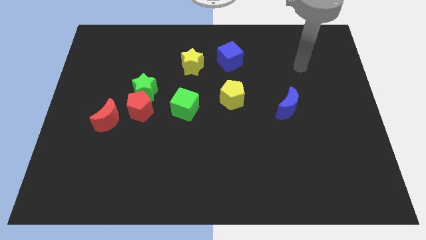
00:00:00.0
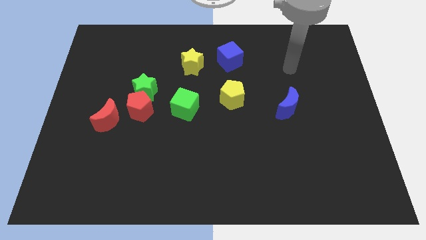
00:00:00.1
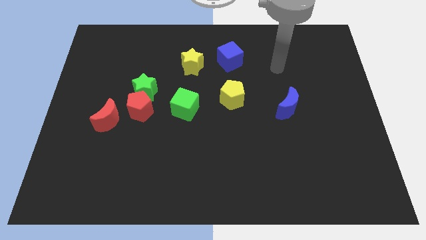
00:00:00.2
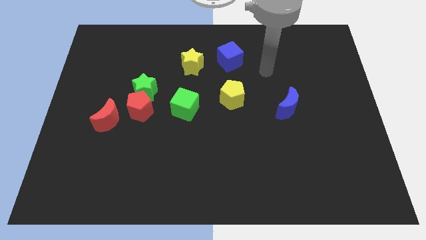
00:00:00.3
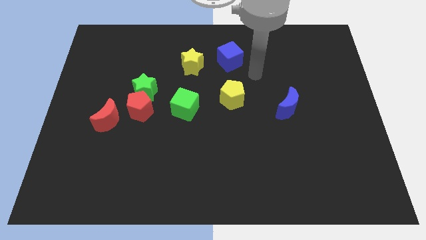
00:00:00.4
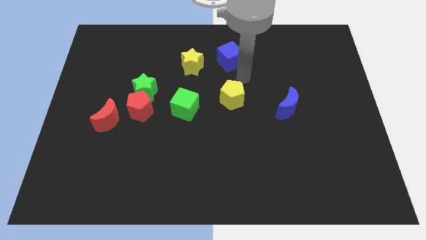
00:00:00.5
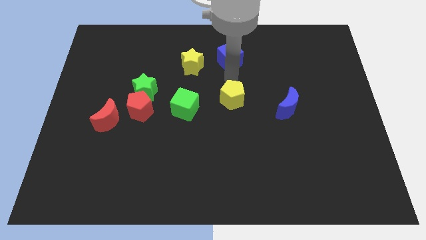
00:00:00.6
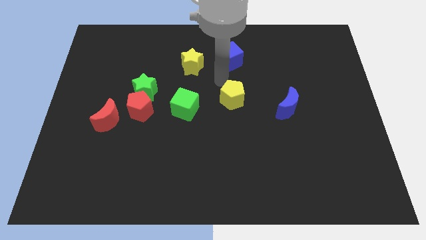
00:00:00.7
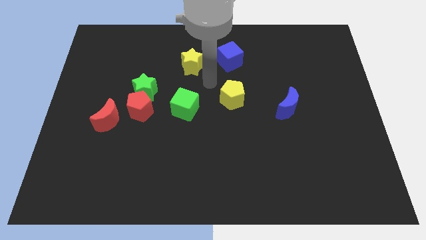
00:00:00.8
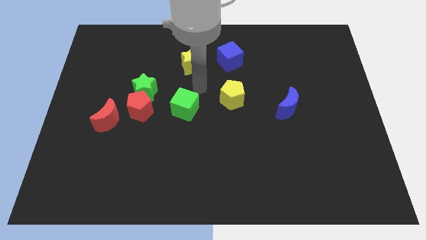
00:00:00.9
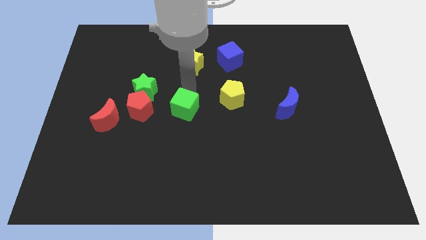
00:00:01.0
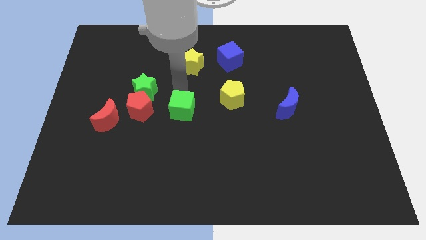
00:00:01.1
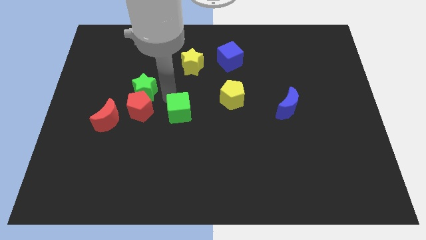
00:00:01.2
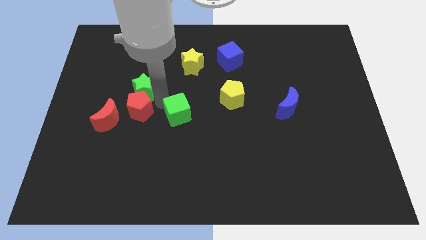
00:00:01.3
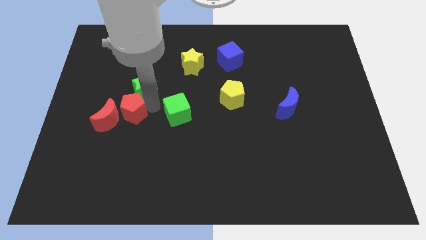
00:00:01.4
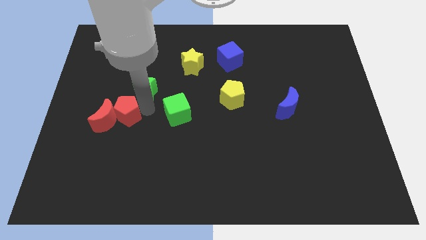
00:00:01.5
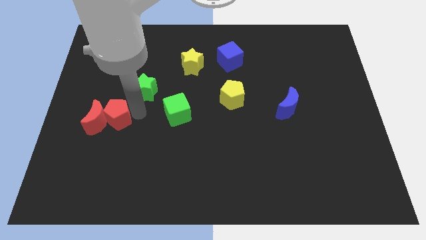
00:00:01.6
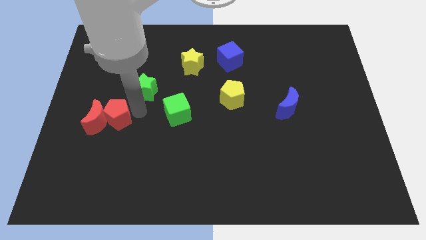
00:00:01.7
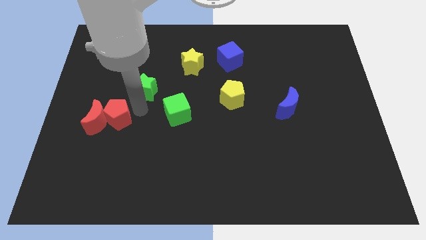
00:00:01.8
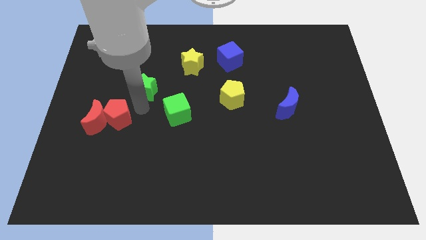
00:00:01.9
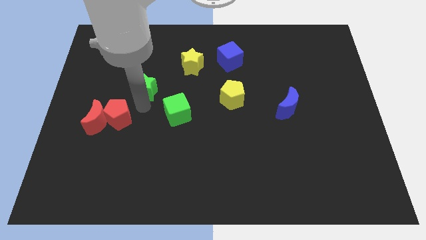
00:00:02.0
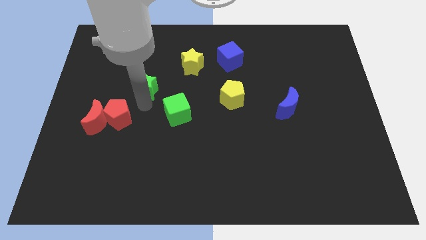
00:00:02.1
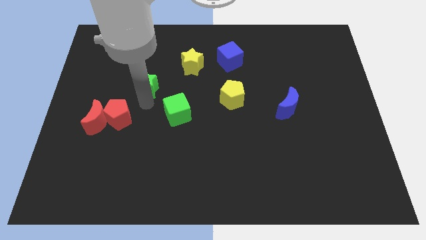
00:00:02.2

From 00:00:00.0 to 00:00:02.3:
separate the green star from the red pentagon

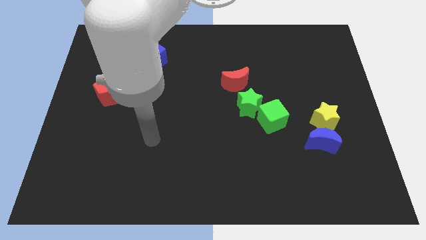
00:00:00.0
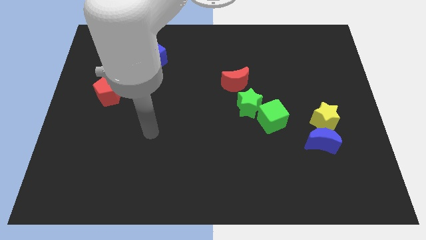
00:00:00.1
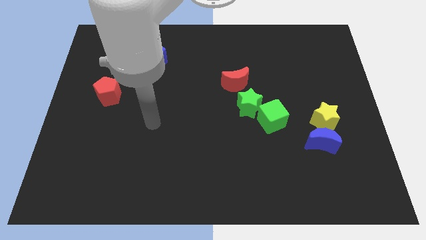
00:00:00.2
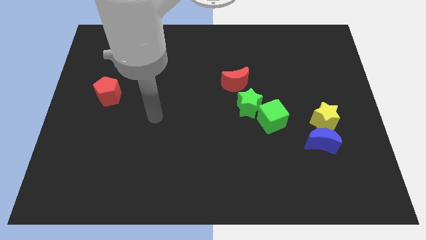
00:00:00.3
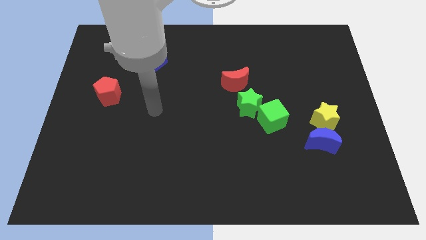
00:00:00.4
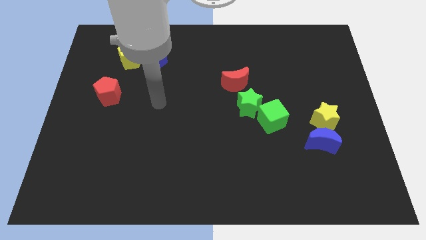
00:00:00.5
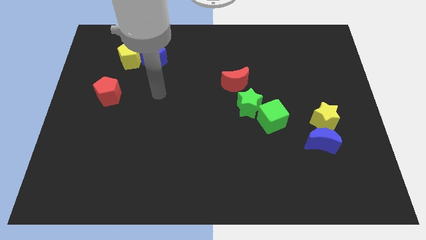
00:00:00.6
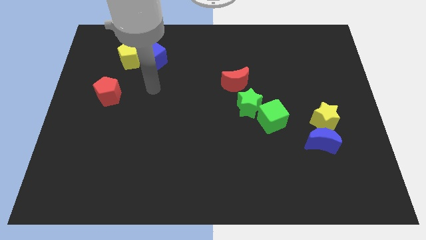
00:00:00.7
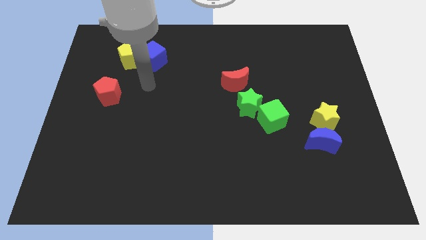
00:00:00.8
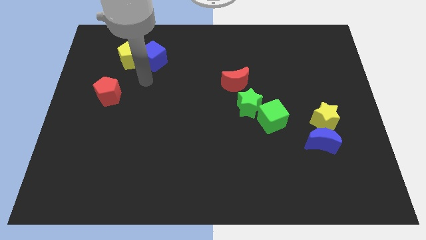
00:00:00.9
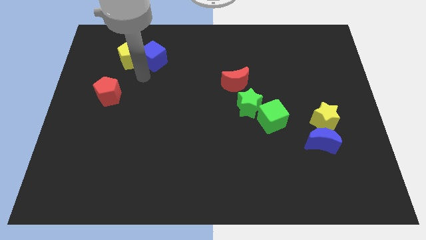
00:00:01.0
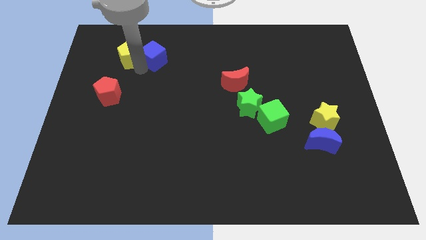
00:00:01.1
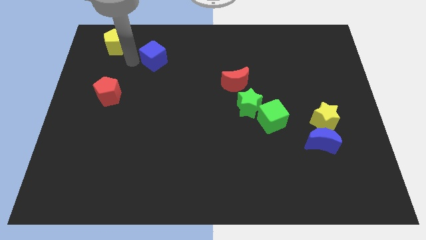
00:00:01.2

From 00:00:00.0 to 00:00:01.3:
separate the blue cube from the yellow pentagon

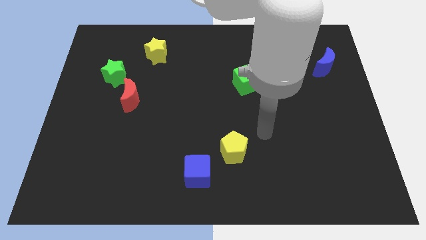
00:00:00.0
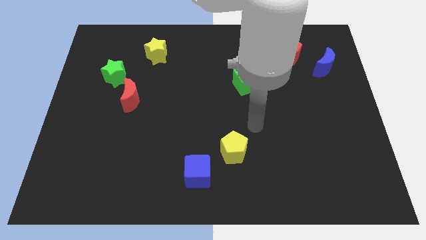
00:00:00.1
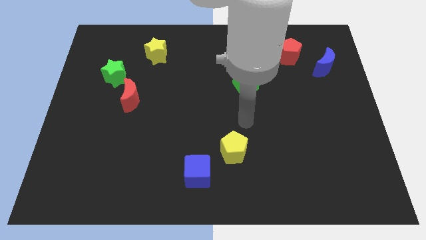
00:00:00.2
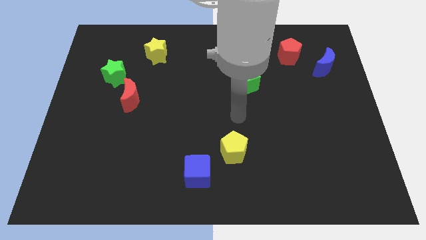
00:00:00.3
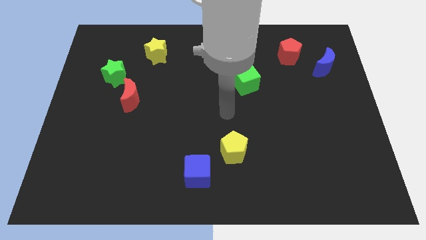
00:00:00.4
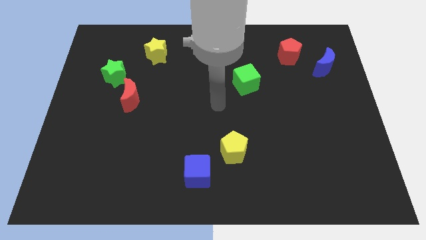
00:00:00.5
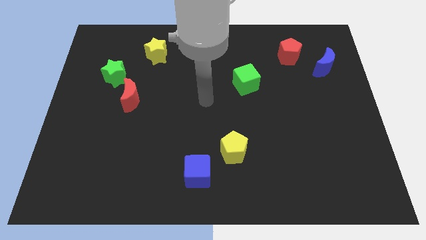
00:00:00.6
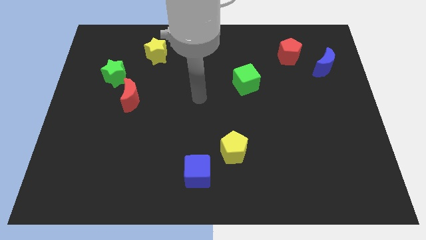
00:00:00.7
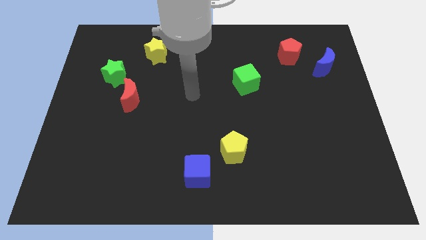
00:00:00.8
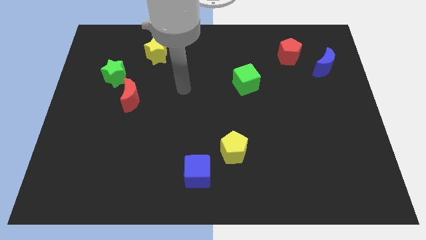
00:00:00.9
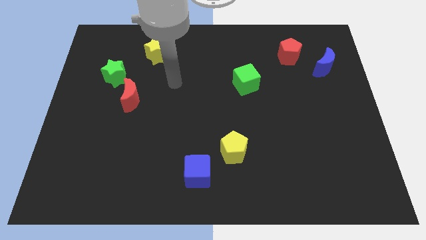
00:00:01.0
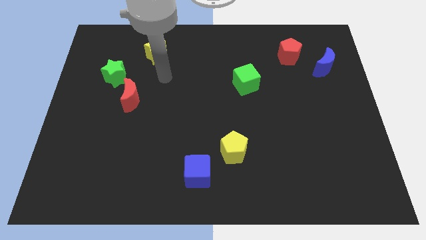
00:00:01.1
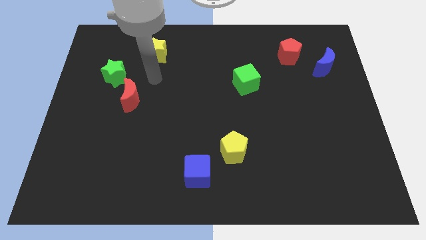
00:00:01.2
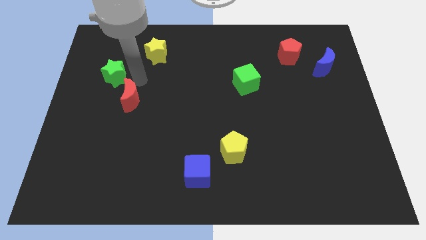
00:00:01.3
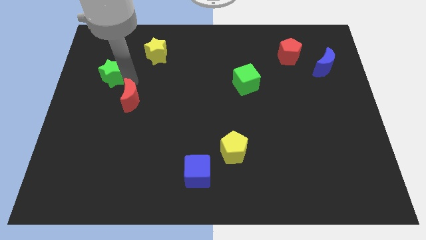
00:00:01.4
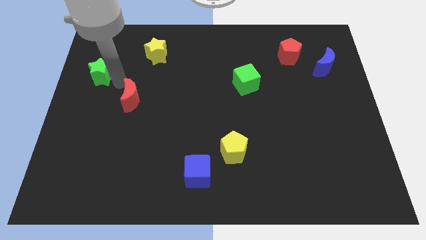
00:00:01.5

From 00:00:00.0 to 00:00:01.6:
separate the red moon from the green star

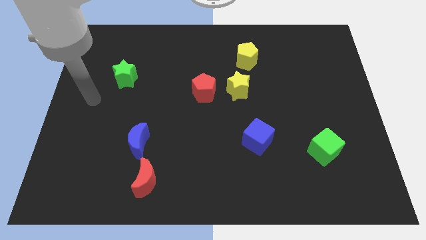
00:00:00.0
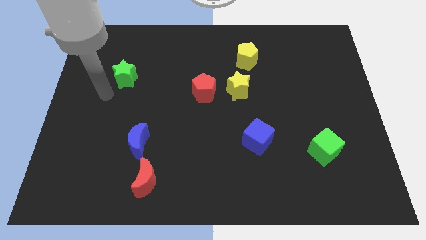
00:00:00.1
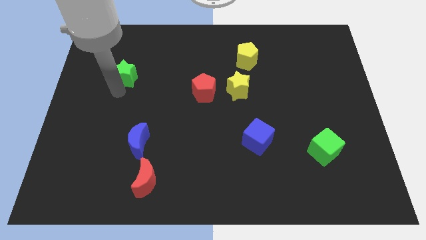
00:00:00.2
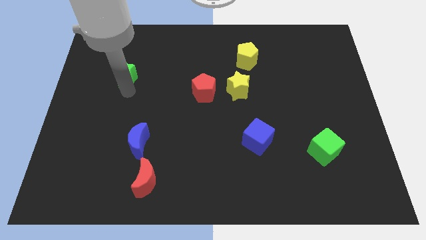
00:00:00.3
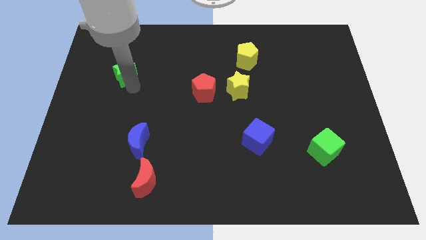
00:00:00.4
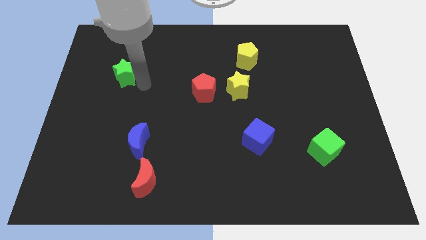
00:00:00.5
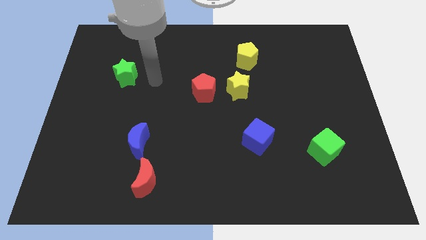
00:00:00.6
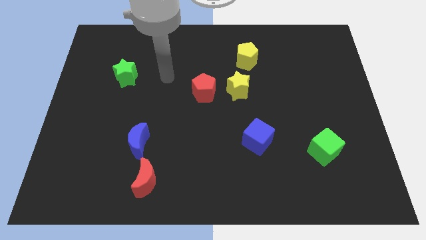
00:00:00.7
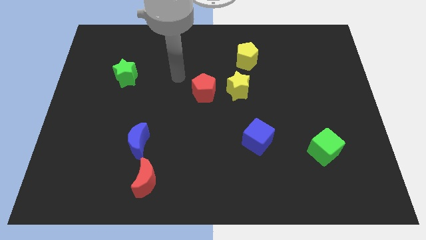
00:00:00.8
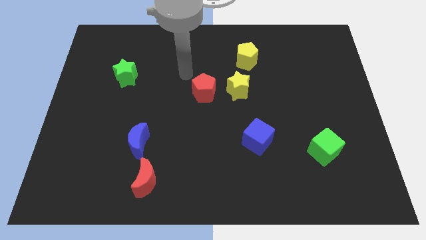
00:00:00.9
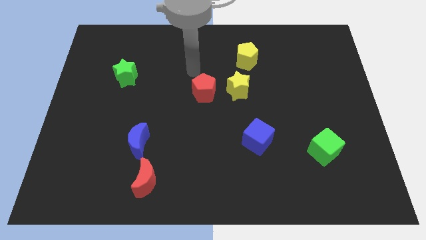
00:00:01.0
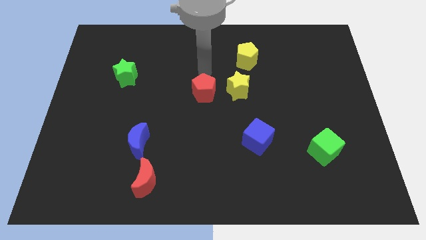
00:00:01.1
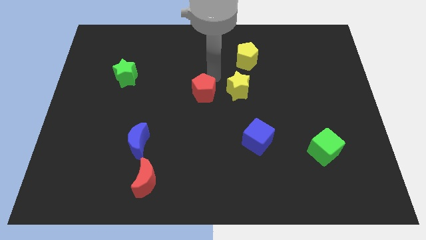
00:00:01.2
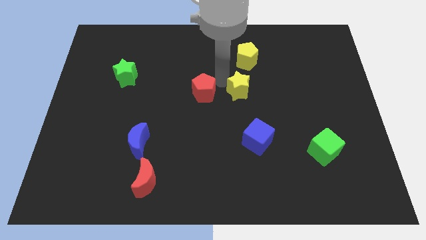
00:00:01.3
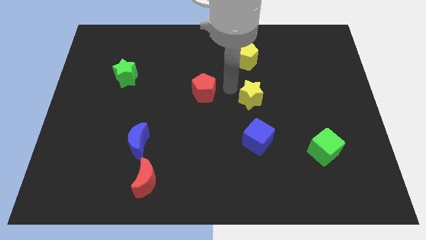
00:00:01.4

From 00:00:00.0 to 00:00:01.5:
pull the red pentagon apart from the yellow star

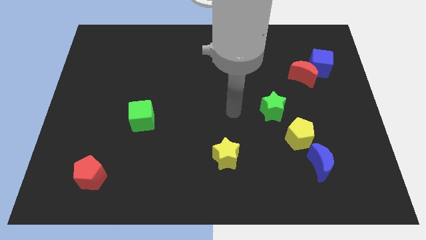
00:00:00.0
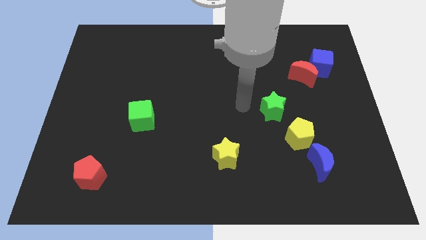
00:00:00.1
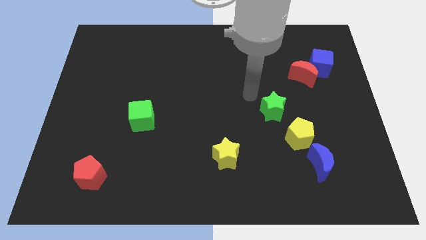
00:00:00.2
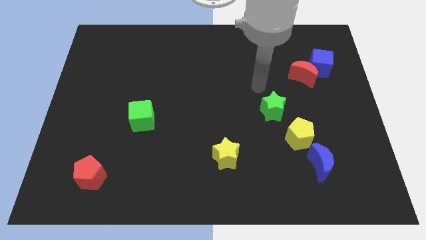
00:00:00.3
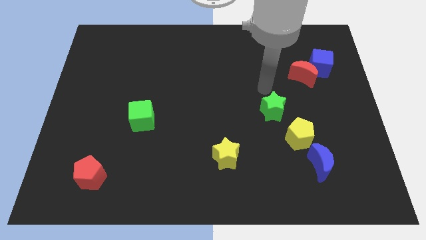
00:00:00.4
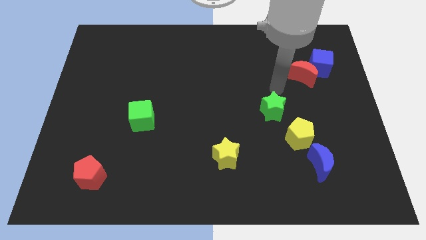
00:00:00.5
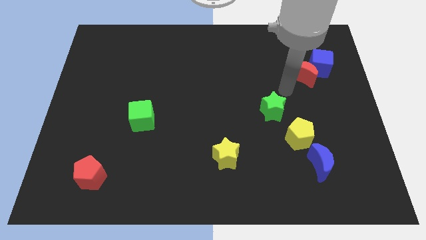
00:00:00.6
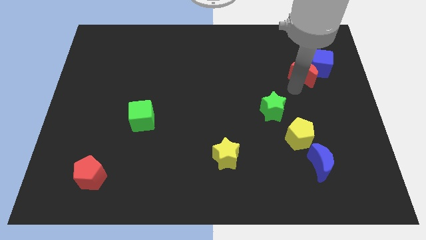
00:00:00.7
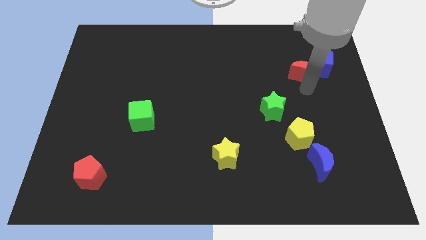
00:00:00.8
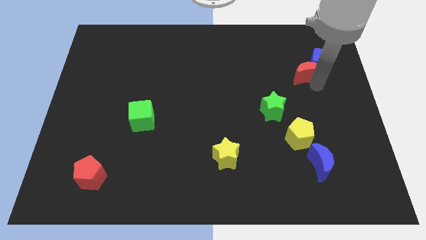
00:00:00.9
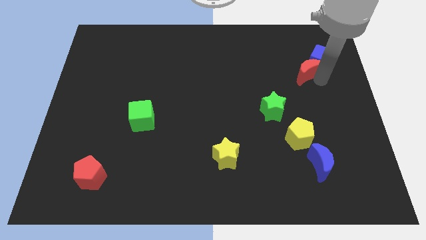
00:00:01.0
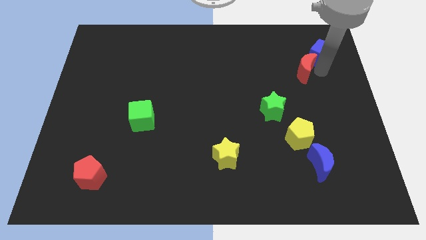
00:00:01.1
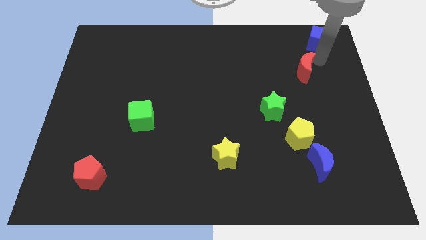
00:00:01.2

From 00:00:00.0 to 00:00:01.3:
separate the red moon from the blue cube

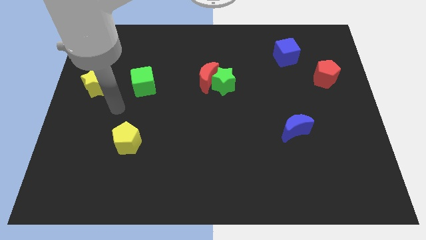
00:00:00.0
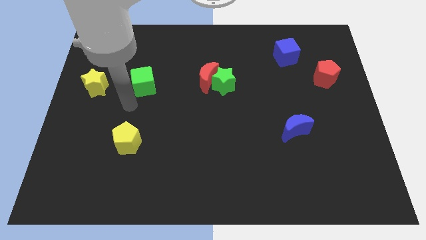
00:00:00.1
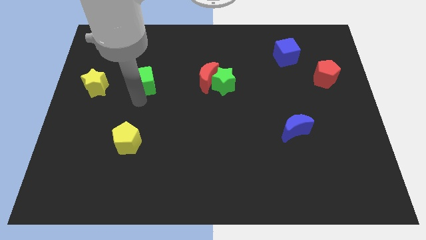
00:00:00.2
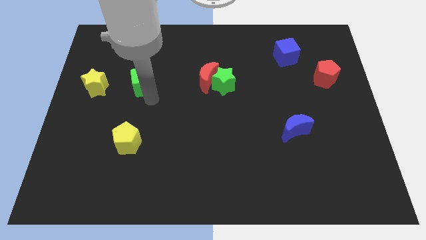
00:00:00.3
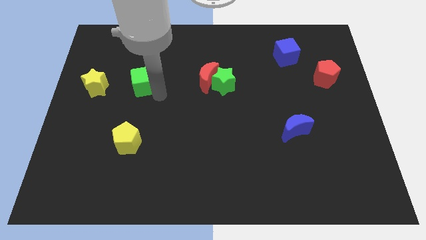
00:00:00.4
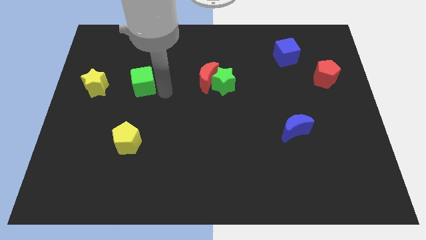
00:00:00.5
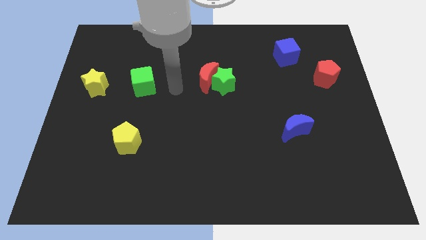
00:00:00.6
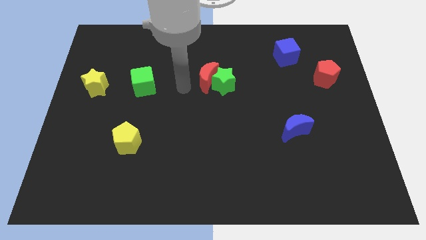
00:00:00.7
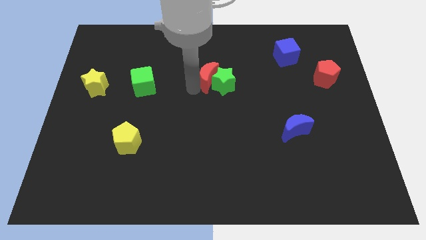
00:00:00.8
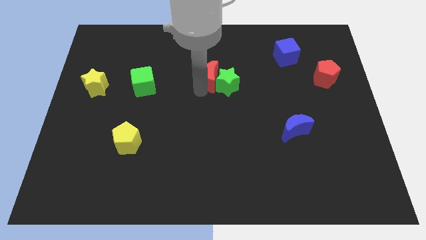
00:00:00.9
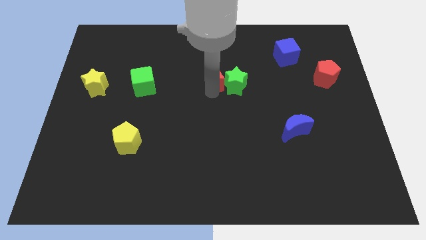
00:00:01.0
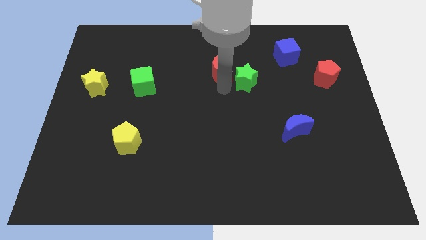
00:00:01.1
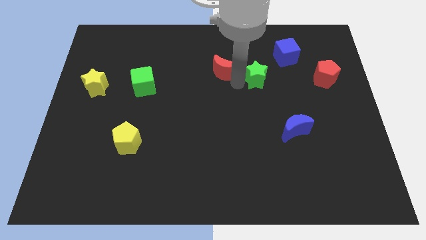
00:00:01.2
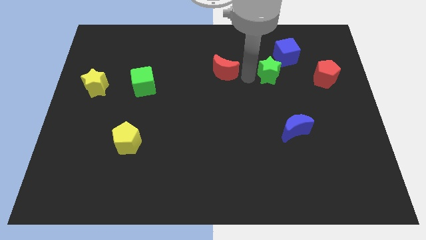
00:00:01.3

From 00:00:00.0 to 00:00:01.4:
move the red moon away from the green star
